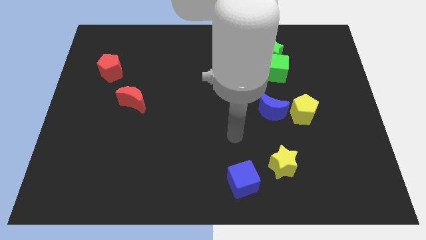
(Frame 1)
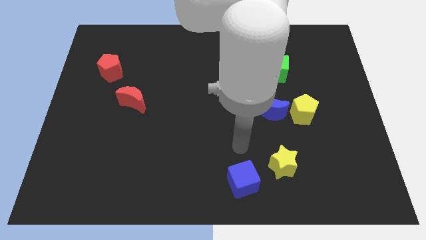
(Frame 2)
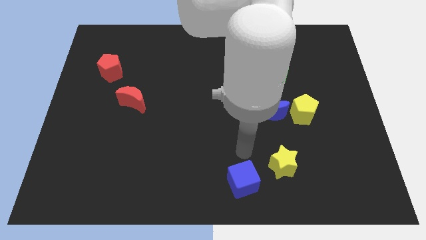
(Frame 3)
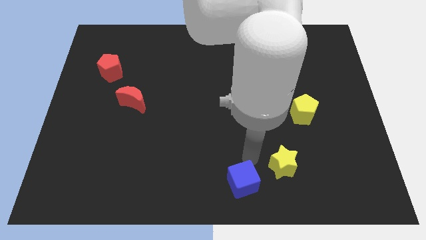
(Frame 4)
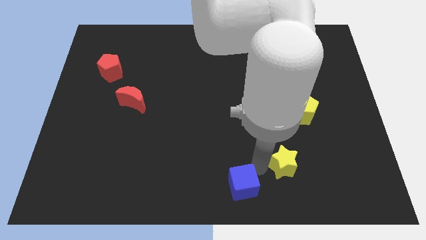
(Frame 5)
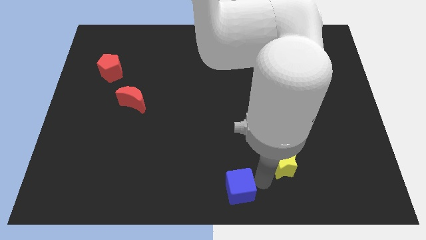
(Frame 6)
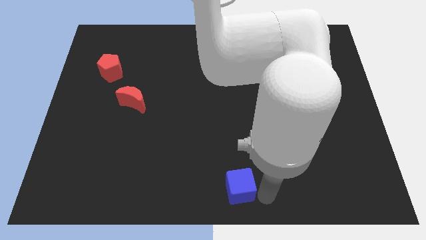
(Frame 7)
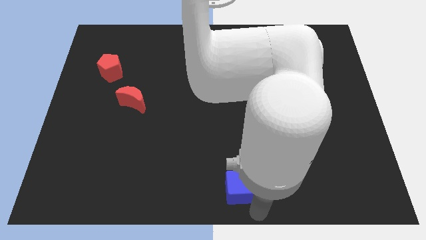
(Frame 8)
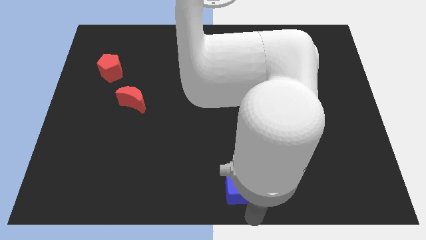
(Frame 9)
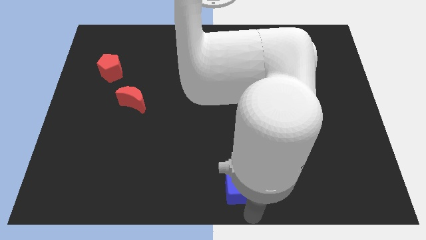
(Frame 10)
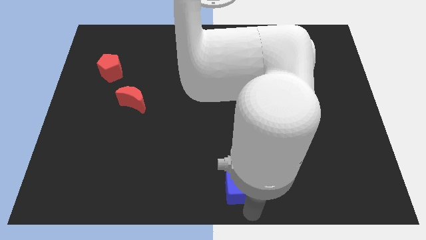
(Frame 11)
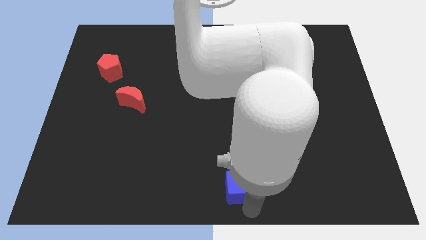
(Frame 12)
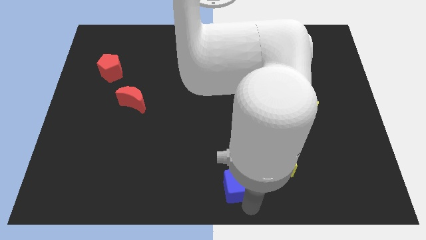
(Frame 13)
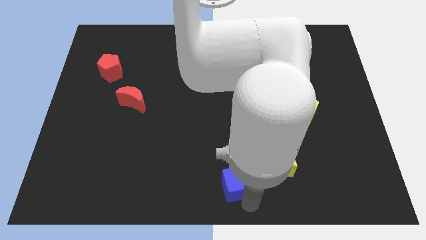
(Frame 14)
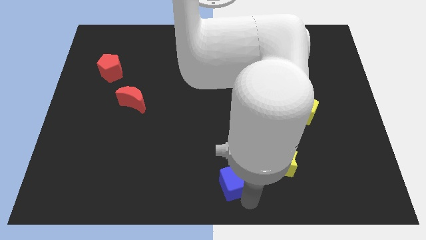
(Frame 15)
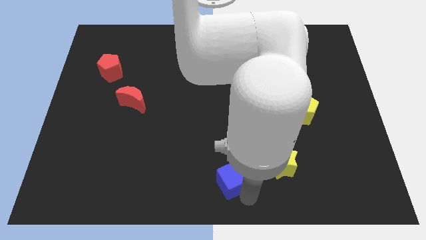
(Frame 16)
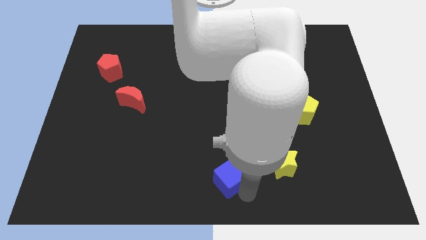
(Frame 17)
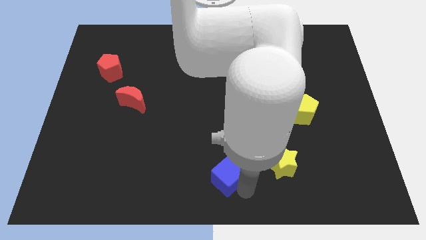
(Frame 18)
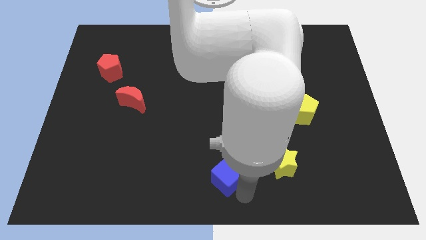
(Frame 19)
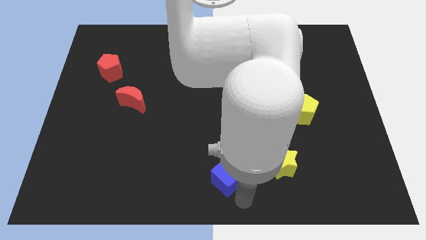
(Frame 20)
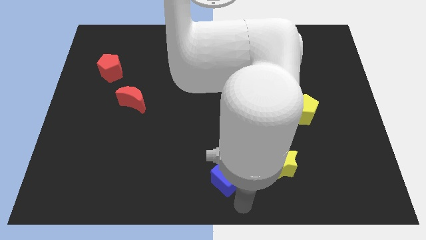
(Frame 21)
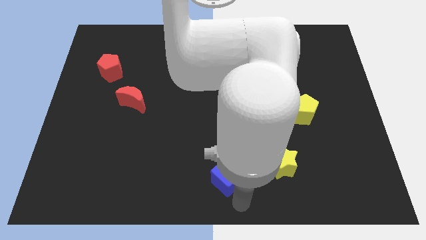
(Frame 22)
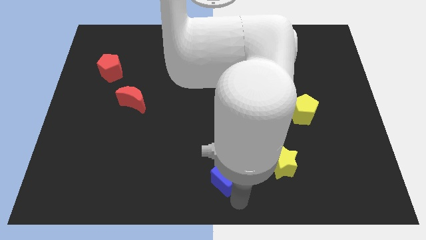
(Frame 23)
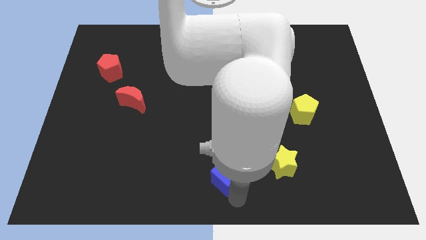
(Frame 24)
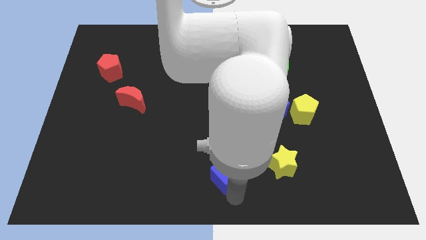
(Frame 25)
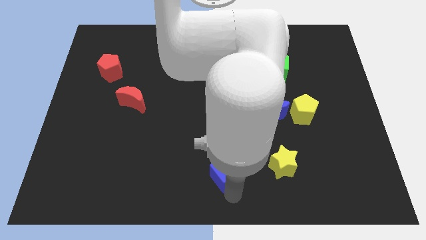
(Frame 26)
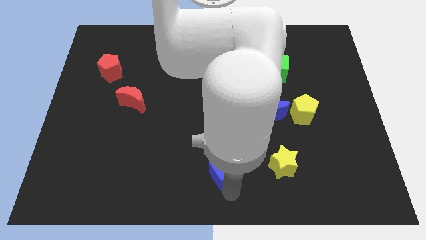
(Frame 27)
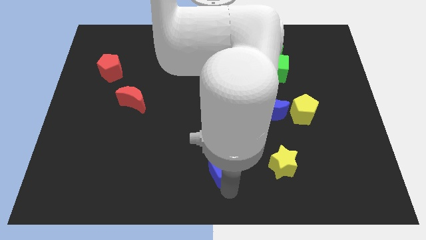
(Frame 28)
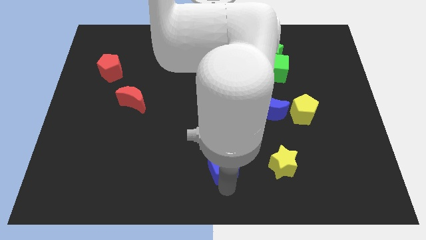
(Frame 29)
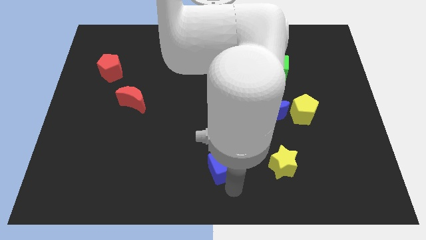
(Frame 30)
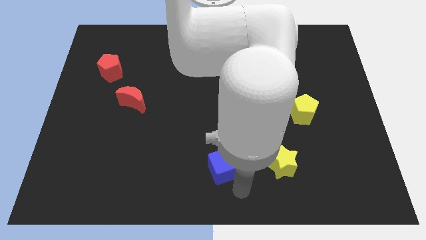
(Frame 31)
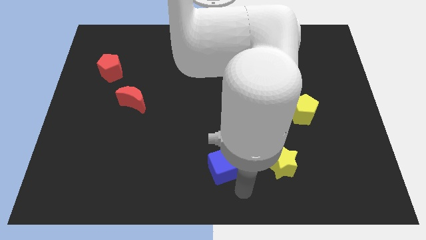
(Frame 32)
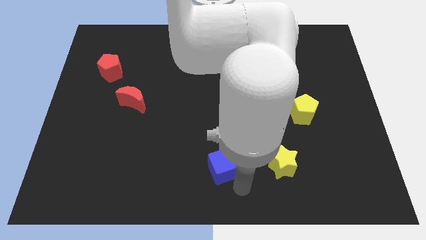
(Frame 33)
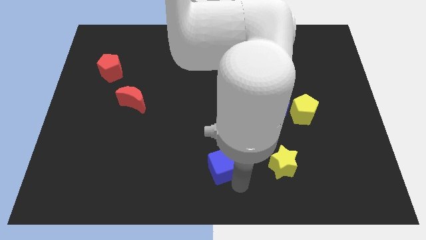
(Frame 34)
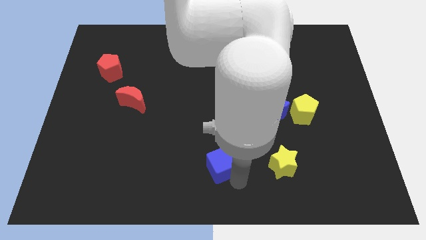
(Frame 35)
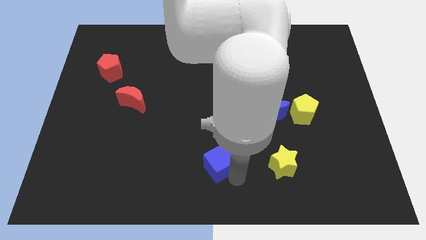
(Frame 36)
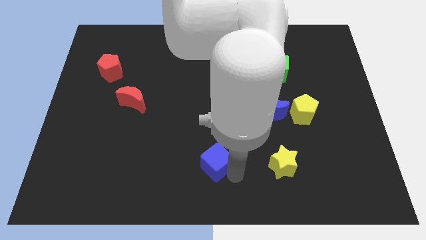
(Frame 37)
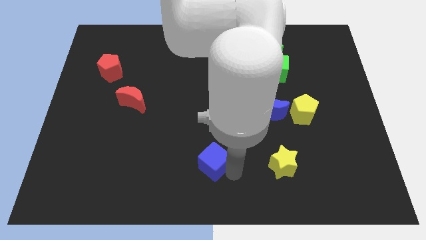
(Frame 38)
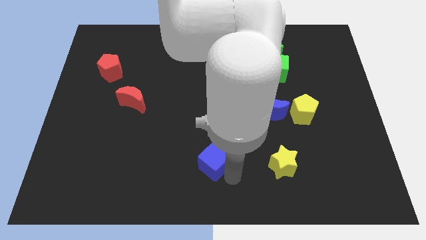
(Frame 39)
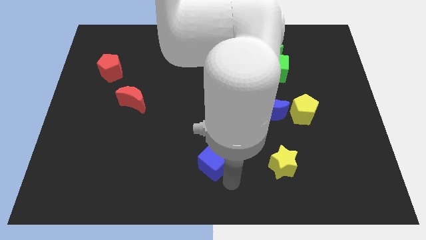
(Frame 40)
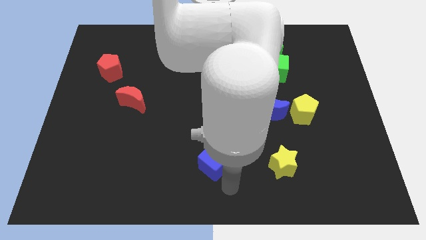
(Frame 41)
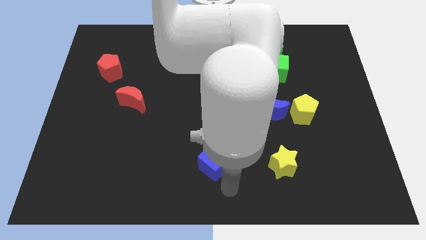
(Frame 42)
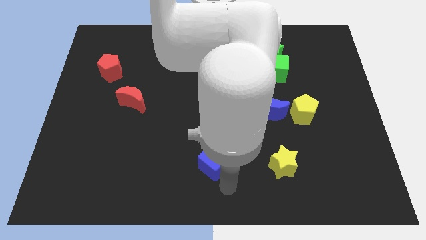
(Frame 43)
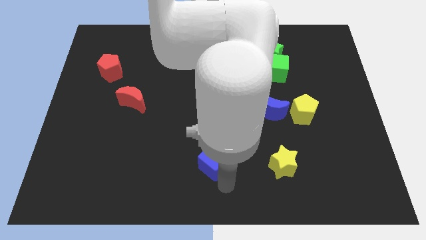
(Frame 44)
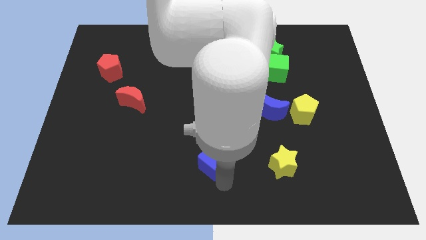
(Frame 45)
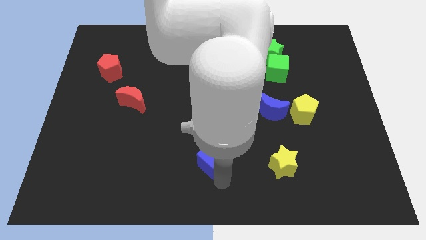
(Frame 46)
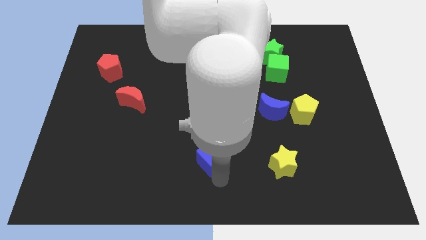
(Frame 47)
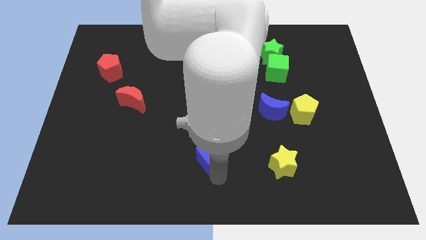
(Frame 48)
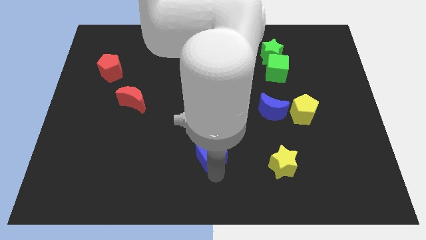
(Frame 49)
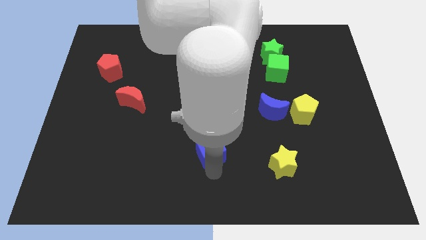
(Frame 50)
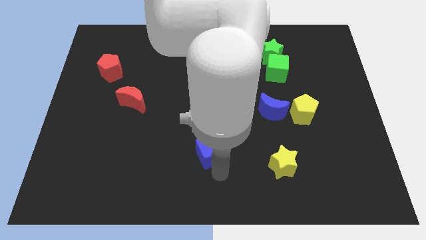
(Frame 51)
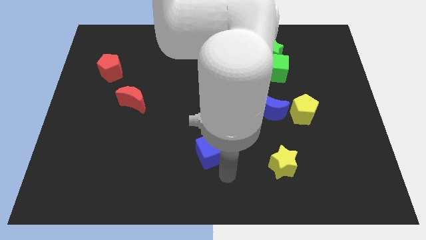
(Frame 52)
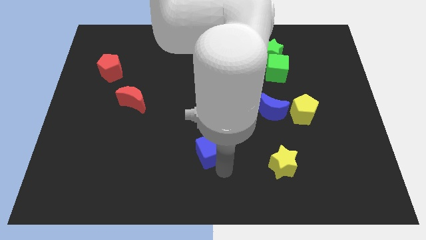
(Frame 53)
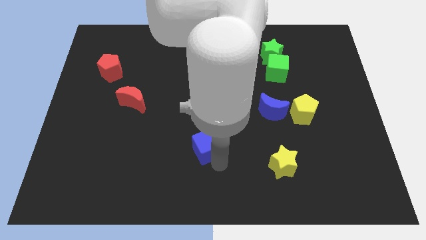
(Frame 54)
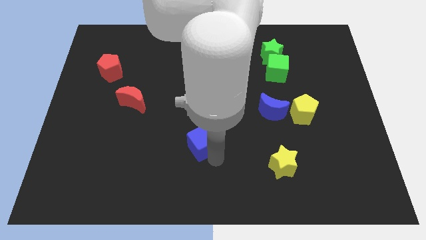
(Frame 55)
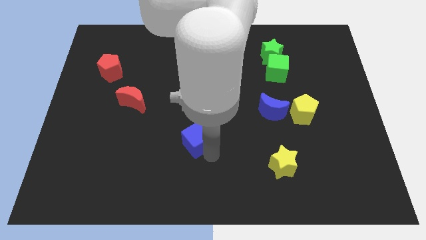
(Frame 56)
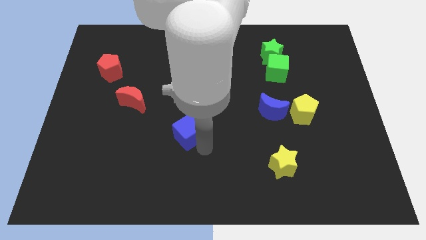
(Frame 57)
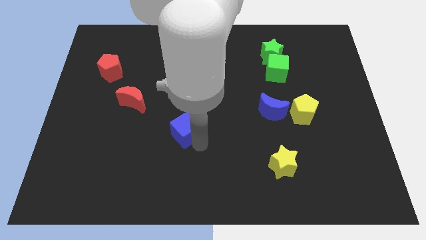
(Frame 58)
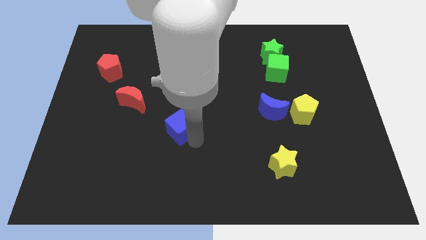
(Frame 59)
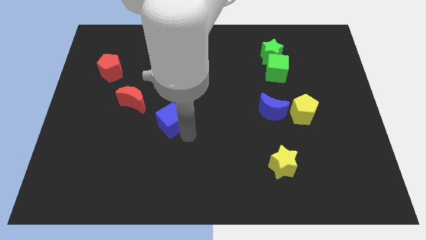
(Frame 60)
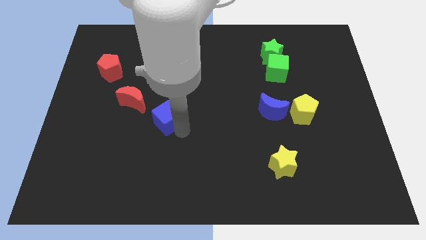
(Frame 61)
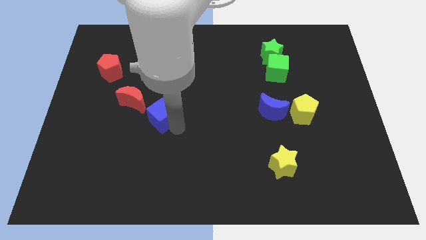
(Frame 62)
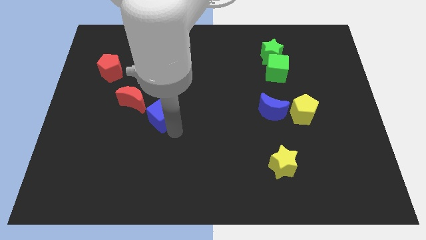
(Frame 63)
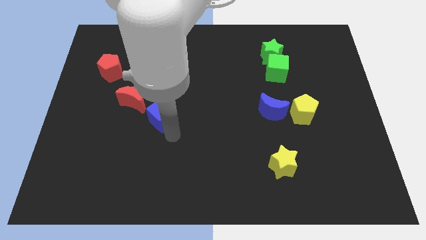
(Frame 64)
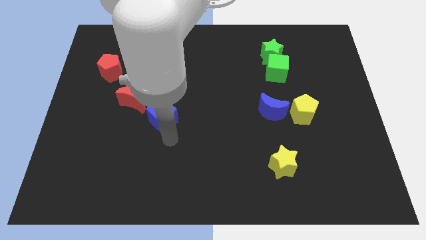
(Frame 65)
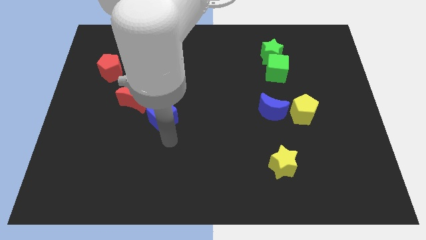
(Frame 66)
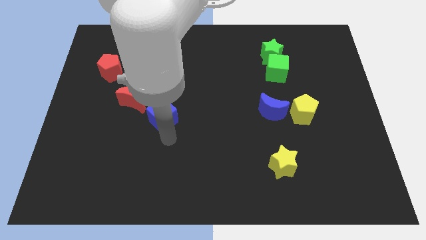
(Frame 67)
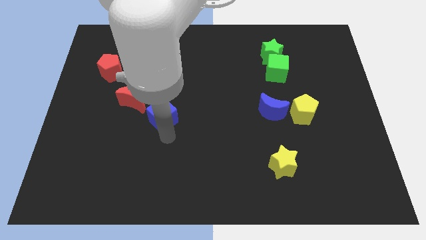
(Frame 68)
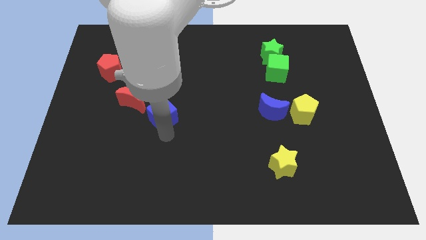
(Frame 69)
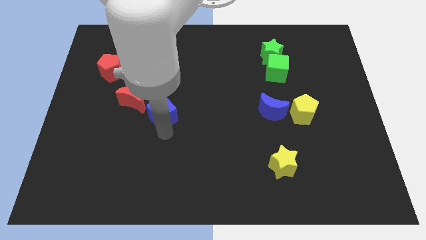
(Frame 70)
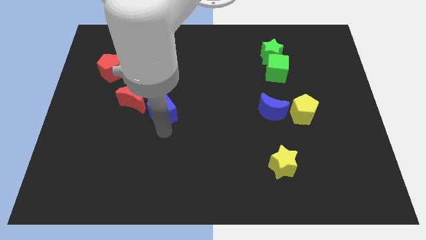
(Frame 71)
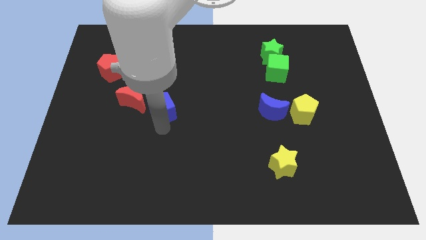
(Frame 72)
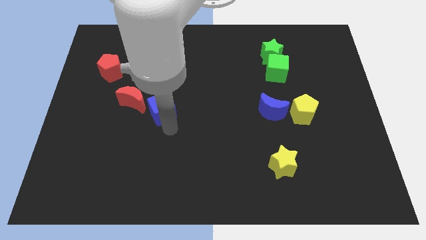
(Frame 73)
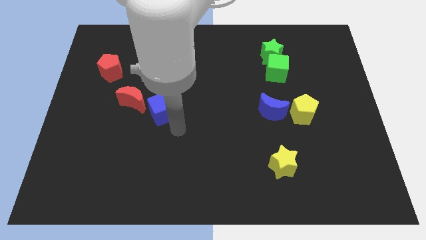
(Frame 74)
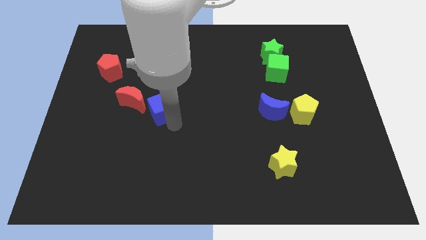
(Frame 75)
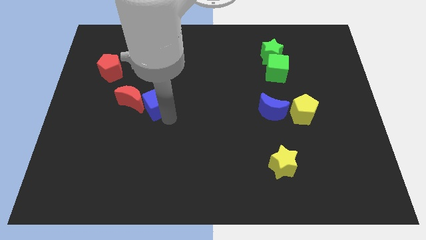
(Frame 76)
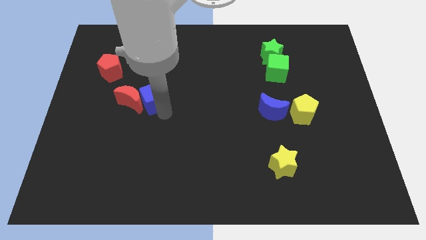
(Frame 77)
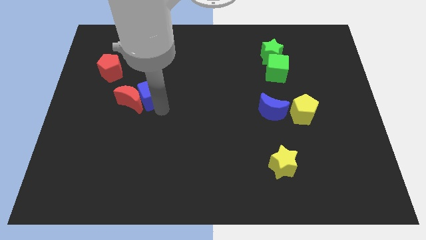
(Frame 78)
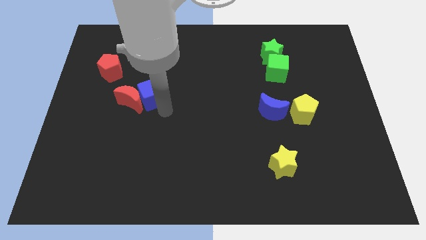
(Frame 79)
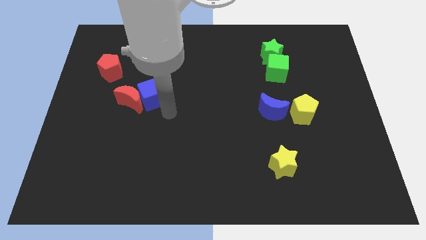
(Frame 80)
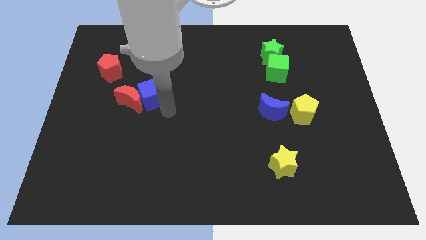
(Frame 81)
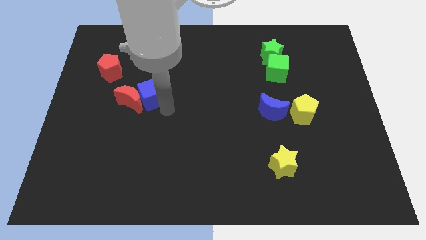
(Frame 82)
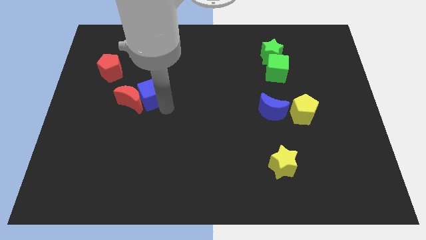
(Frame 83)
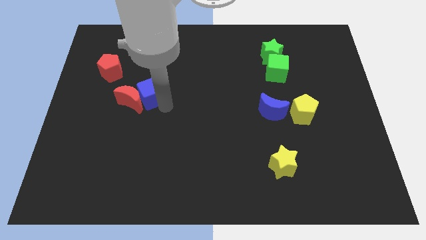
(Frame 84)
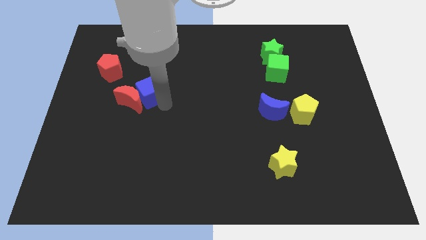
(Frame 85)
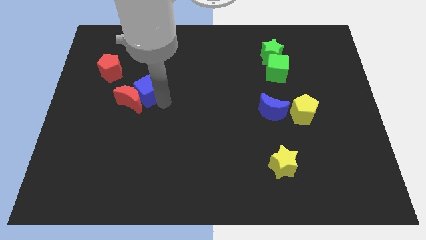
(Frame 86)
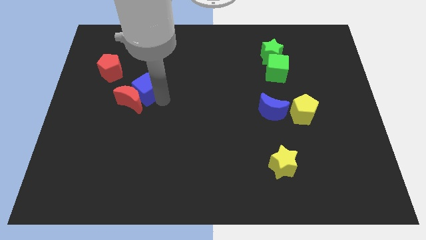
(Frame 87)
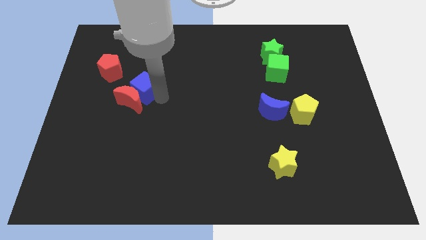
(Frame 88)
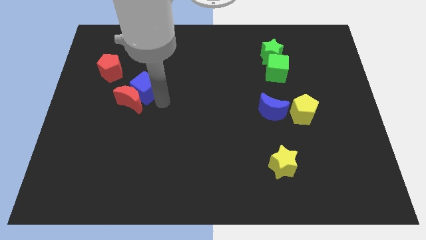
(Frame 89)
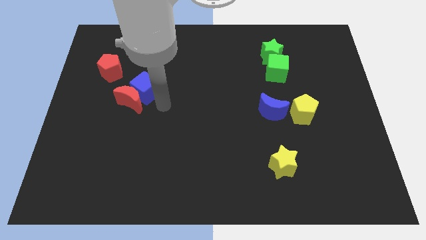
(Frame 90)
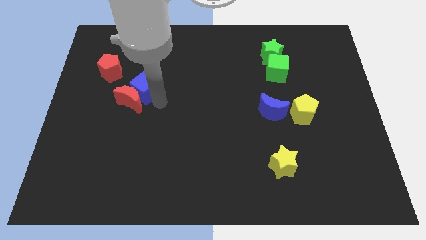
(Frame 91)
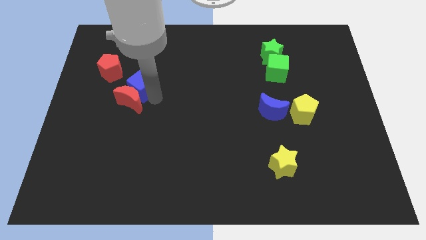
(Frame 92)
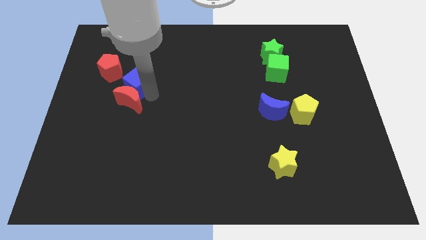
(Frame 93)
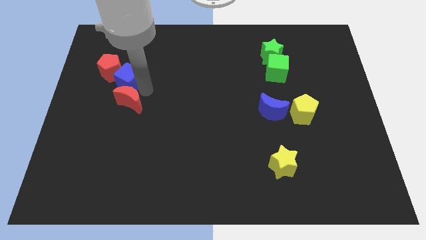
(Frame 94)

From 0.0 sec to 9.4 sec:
put the blue cube to the red pentagon
